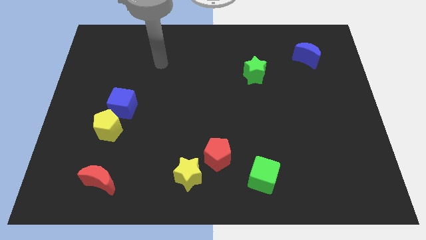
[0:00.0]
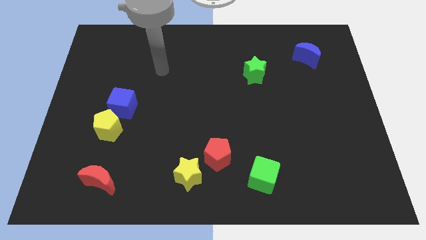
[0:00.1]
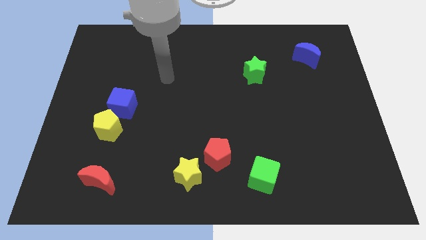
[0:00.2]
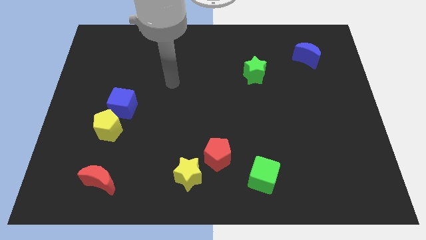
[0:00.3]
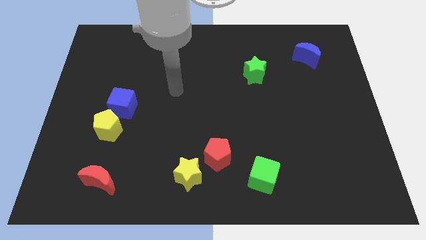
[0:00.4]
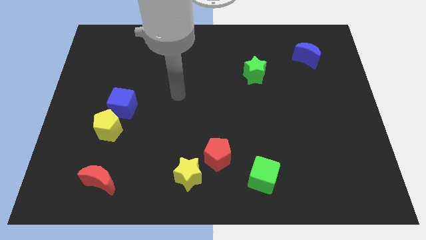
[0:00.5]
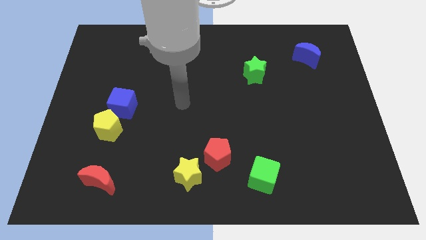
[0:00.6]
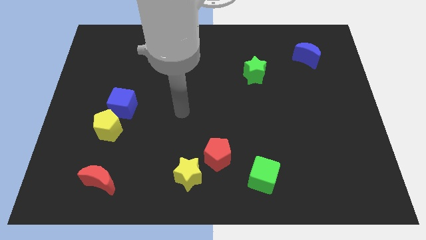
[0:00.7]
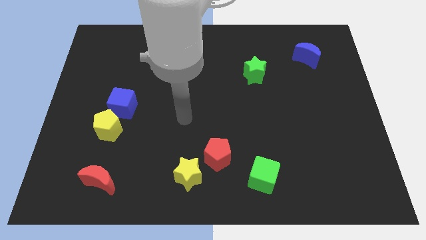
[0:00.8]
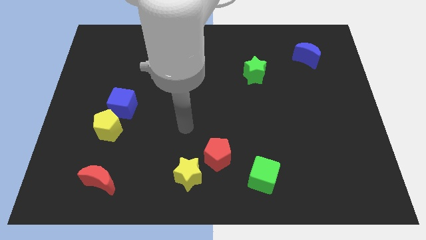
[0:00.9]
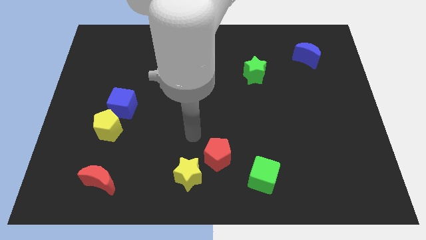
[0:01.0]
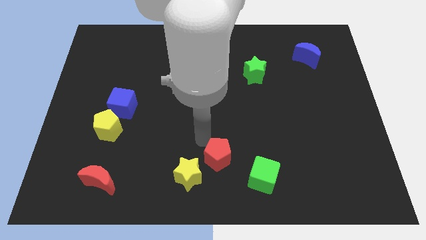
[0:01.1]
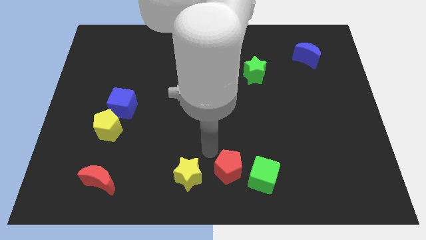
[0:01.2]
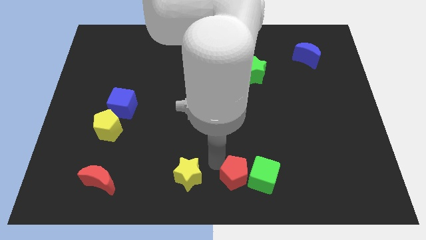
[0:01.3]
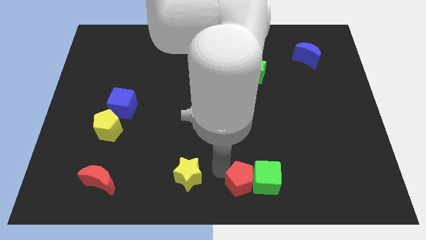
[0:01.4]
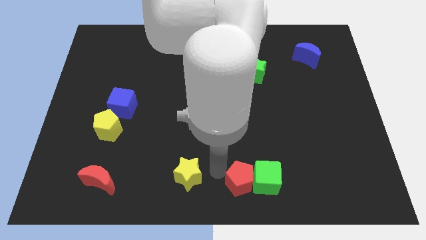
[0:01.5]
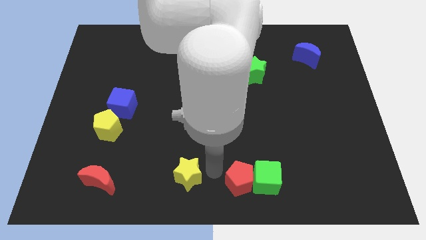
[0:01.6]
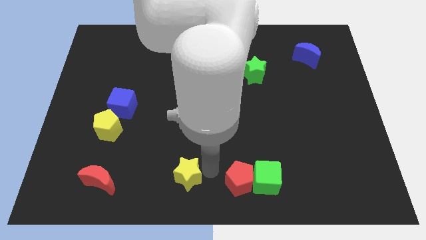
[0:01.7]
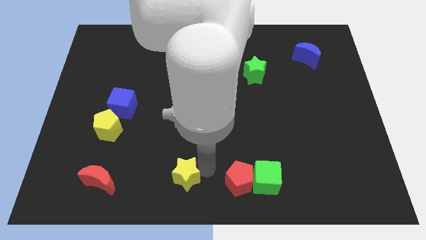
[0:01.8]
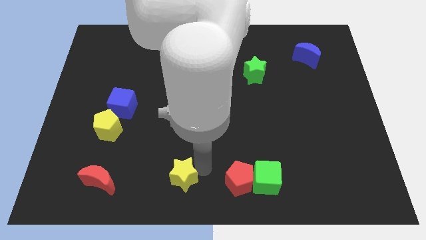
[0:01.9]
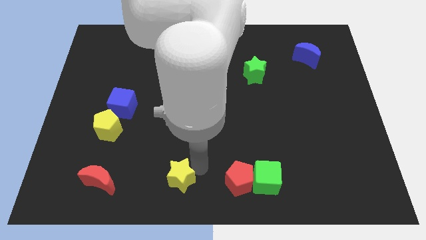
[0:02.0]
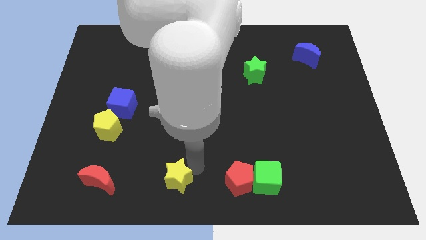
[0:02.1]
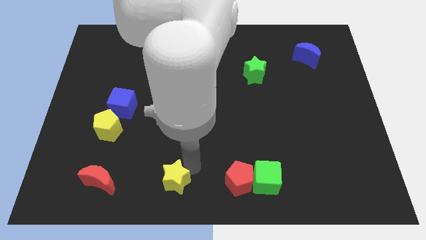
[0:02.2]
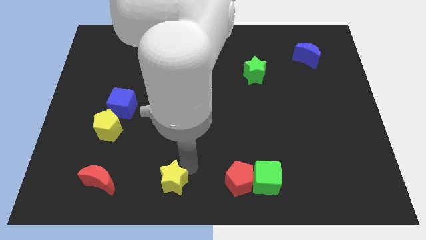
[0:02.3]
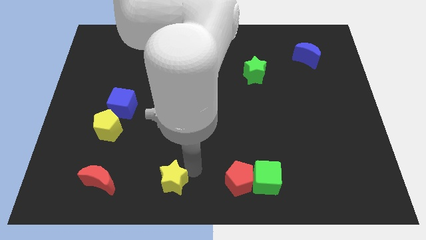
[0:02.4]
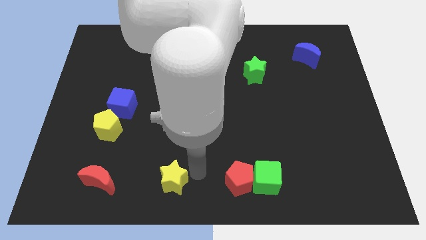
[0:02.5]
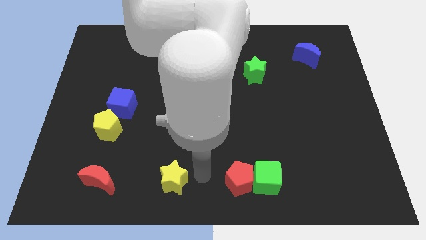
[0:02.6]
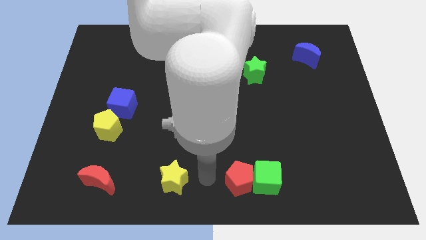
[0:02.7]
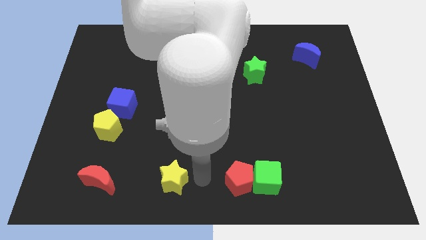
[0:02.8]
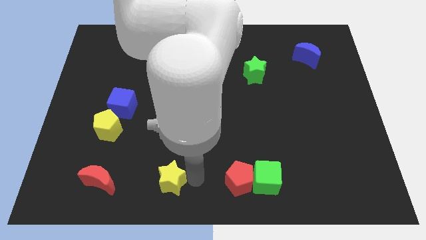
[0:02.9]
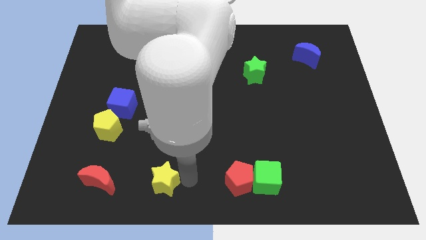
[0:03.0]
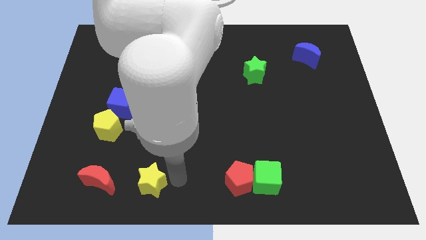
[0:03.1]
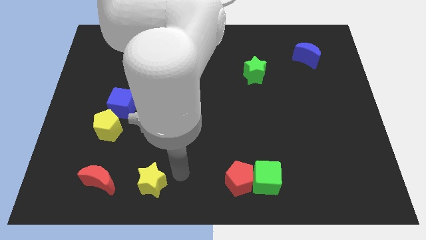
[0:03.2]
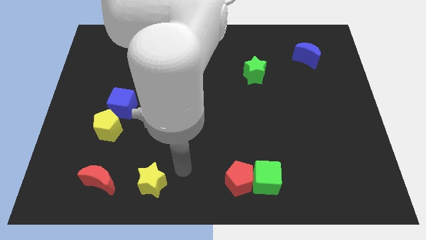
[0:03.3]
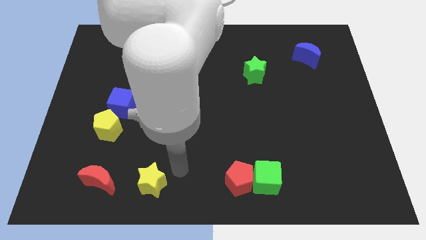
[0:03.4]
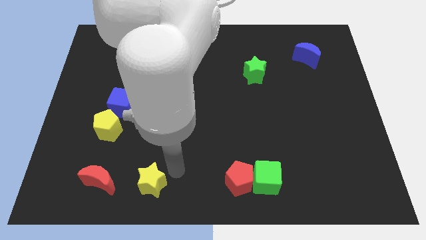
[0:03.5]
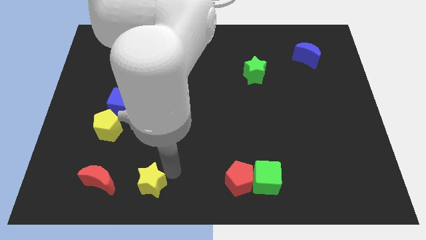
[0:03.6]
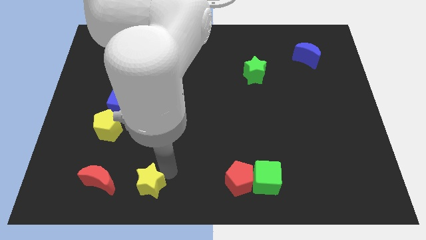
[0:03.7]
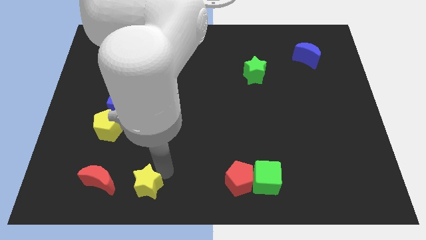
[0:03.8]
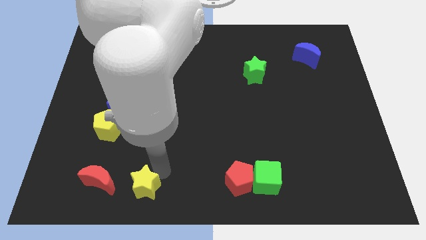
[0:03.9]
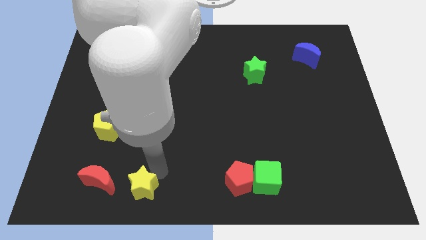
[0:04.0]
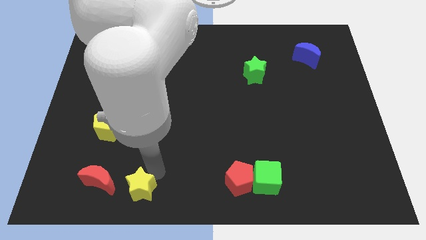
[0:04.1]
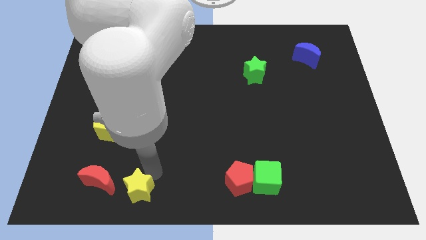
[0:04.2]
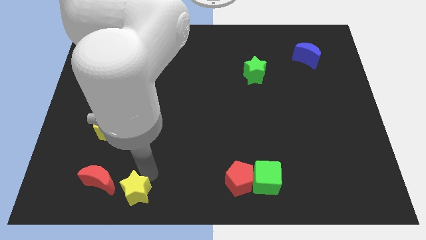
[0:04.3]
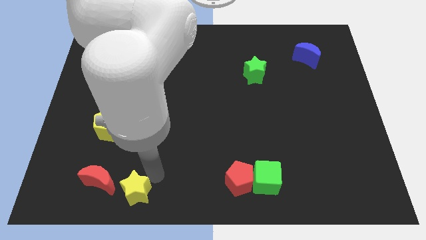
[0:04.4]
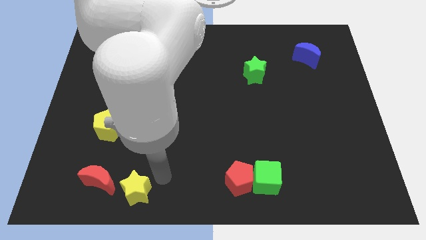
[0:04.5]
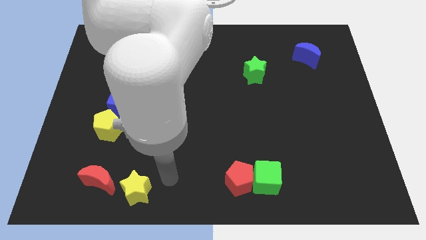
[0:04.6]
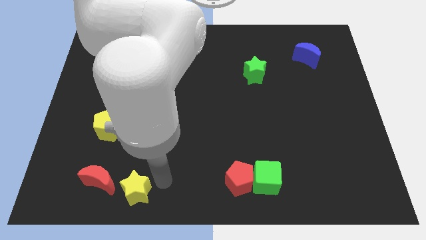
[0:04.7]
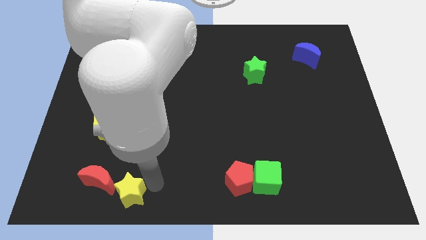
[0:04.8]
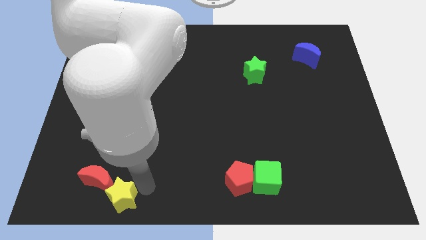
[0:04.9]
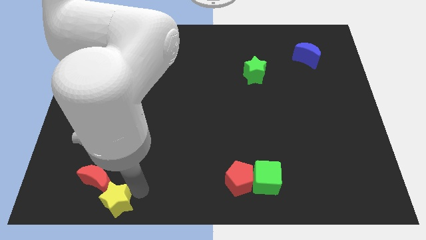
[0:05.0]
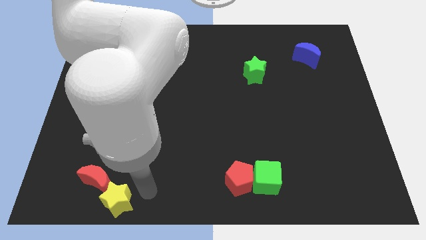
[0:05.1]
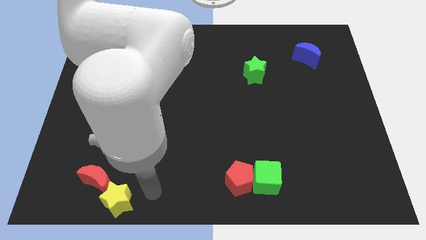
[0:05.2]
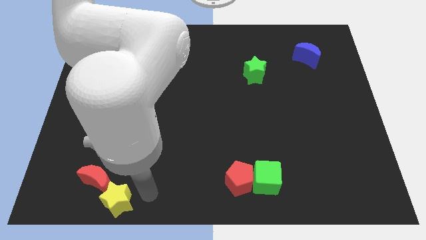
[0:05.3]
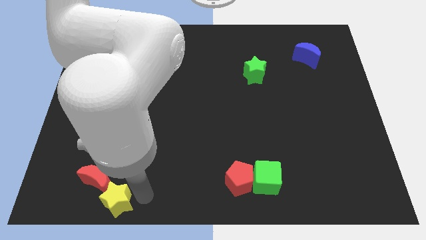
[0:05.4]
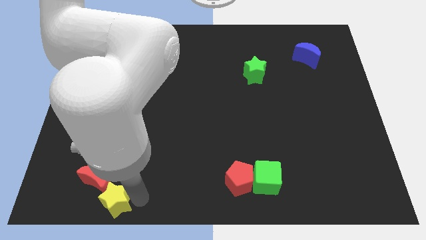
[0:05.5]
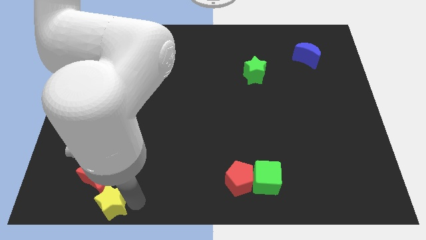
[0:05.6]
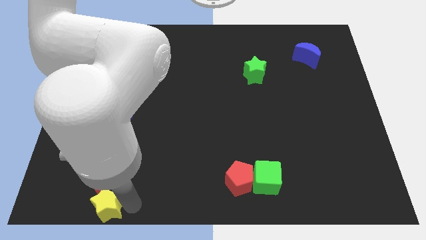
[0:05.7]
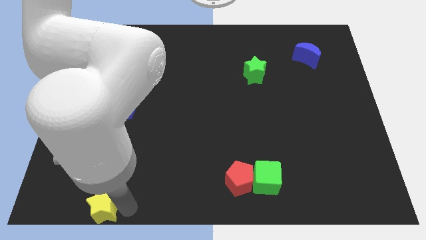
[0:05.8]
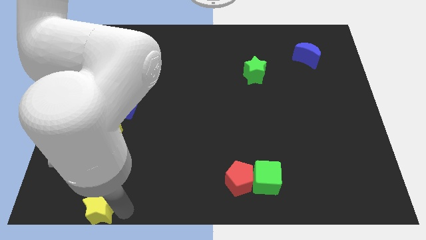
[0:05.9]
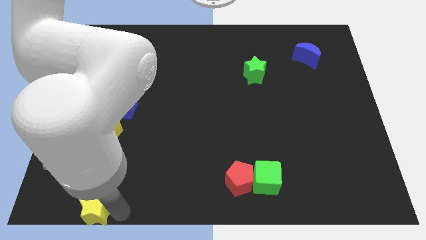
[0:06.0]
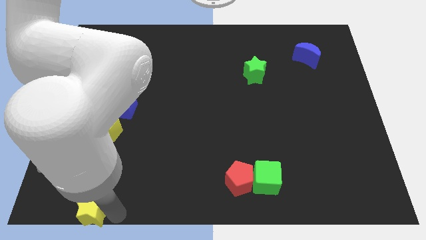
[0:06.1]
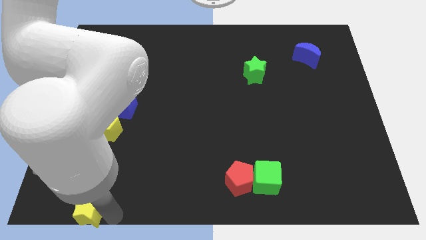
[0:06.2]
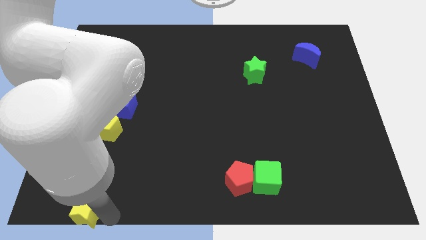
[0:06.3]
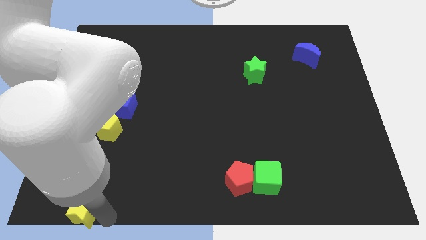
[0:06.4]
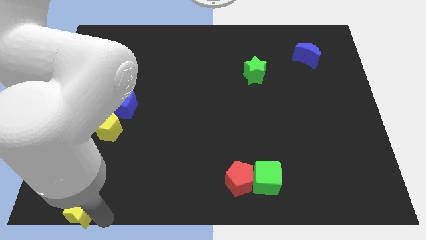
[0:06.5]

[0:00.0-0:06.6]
push the yellow star to the lower left corner

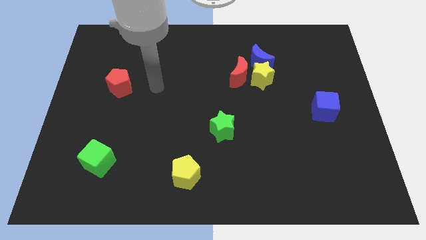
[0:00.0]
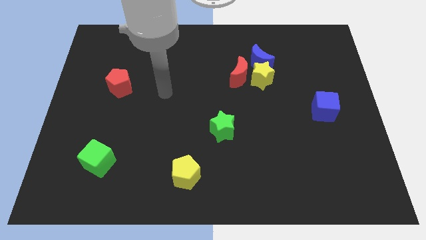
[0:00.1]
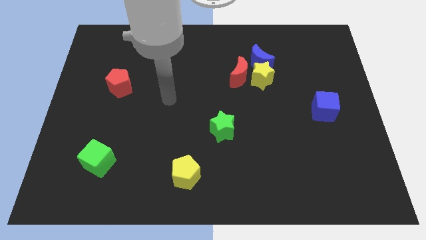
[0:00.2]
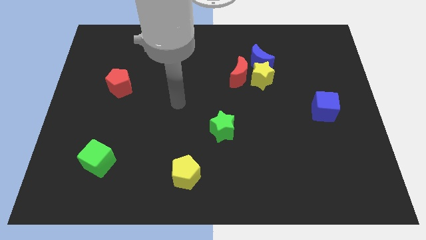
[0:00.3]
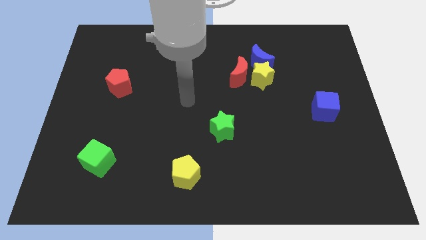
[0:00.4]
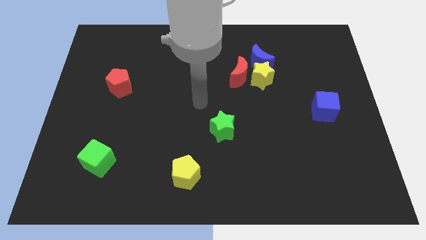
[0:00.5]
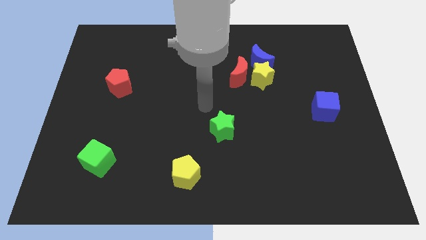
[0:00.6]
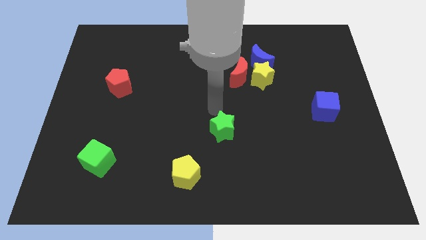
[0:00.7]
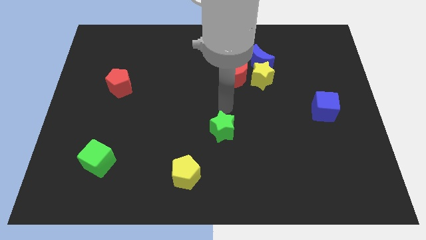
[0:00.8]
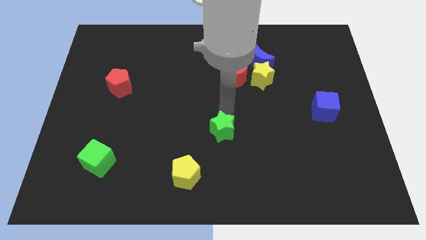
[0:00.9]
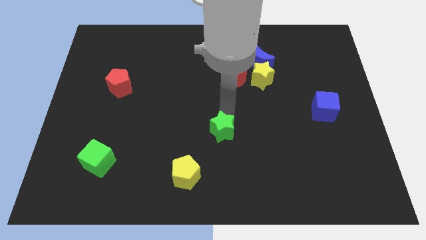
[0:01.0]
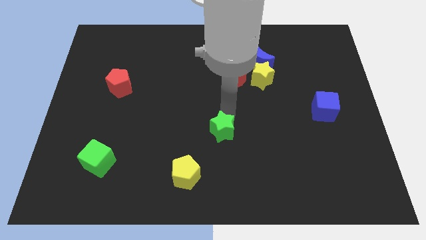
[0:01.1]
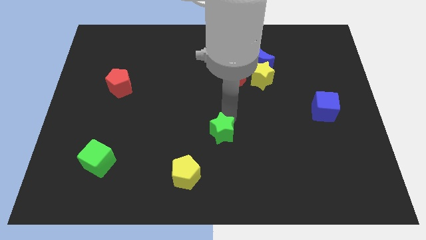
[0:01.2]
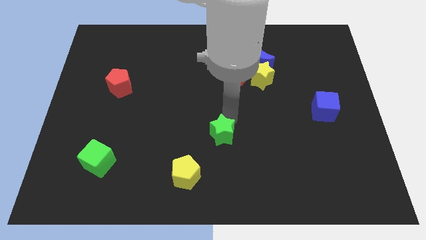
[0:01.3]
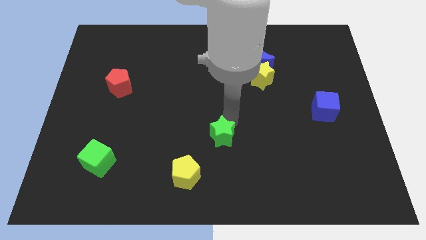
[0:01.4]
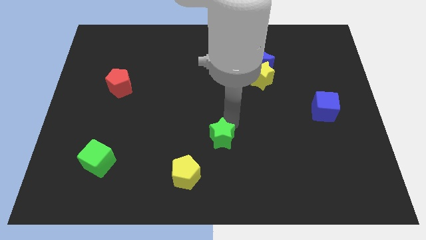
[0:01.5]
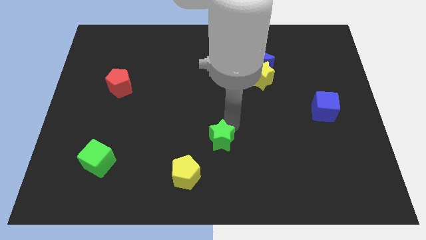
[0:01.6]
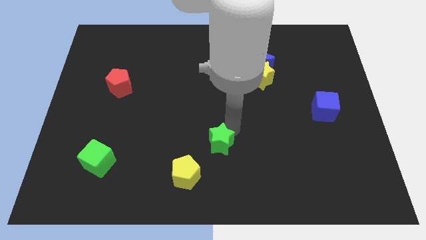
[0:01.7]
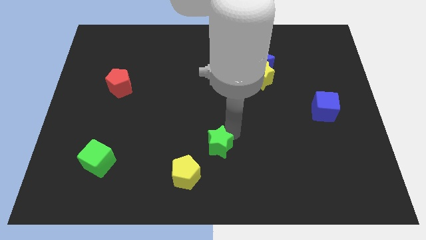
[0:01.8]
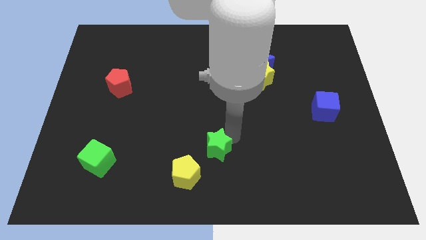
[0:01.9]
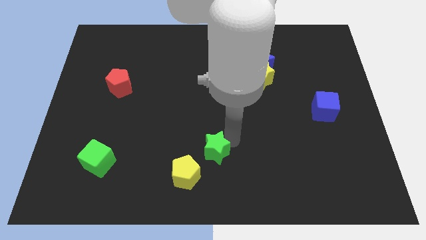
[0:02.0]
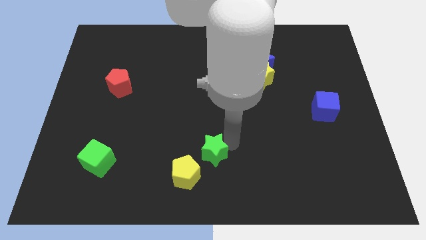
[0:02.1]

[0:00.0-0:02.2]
move the green star to the bottom side
